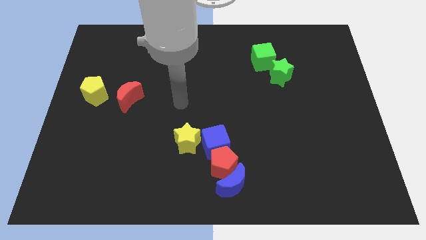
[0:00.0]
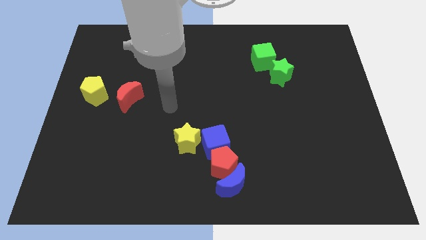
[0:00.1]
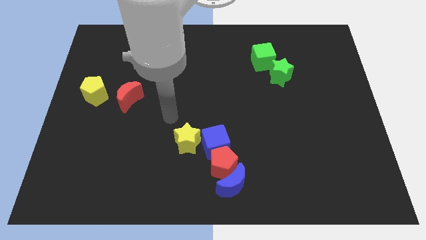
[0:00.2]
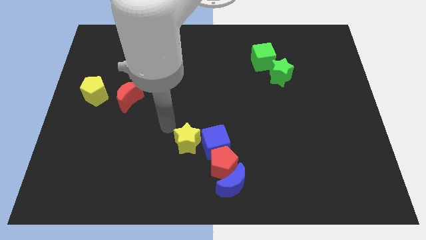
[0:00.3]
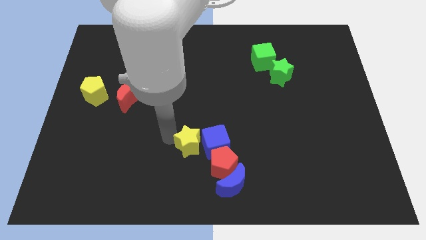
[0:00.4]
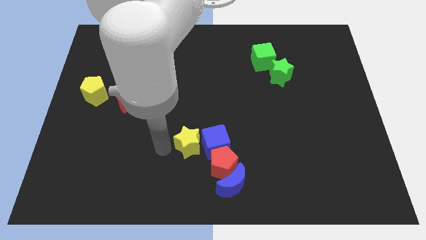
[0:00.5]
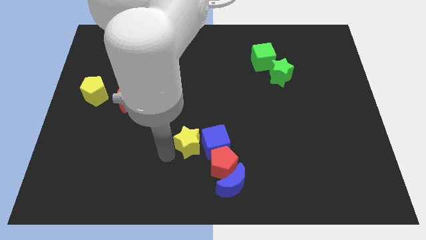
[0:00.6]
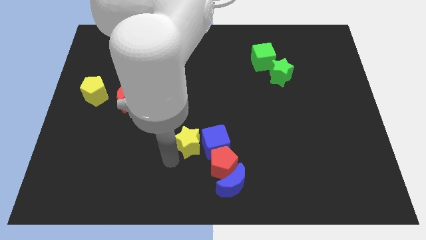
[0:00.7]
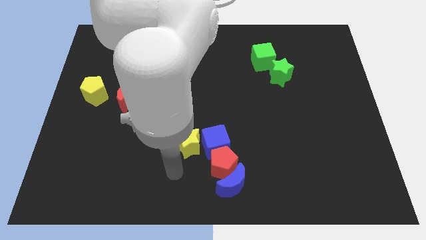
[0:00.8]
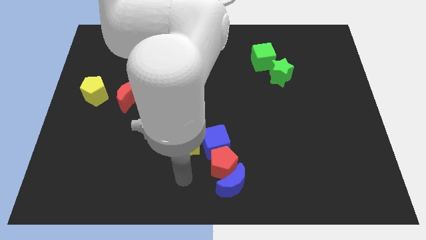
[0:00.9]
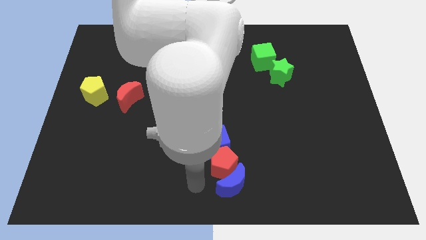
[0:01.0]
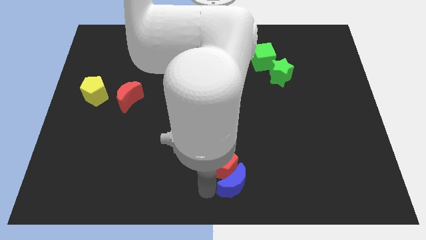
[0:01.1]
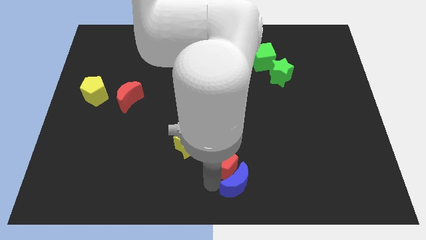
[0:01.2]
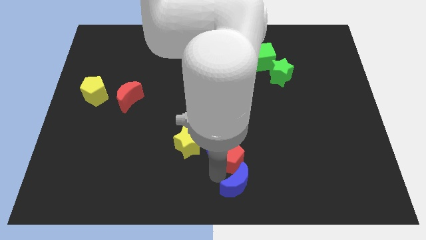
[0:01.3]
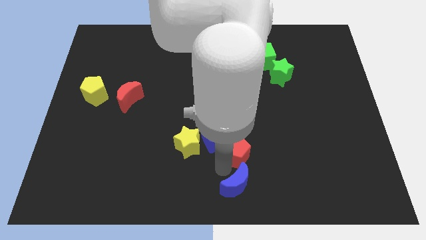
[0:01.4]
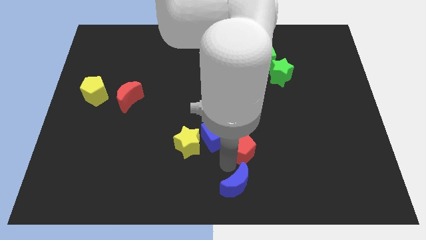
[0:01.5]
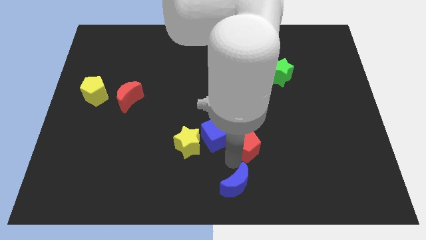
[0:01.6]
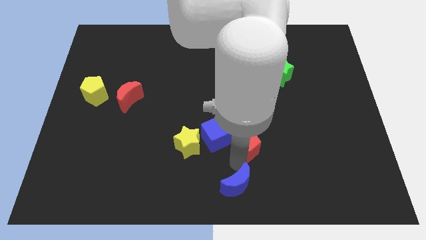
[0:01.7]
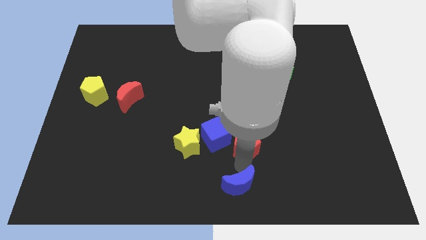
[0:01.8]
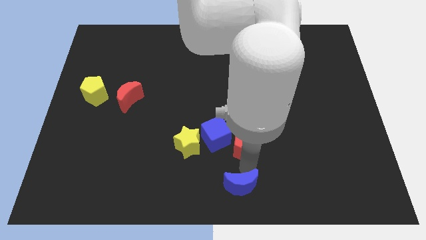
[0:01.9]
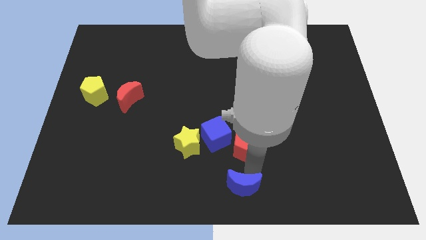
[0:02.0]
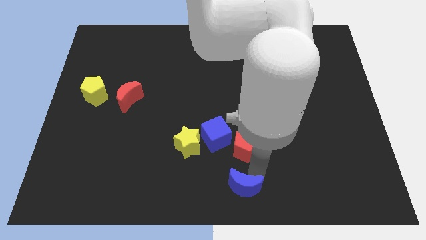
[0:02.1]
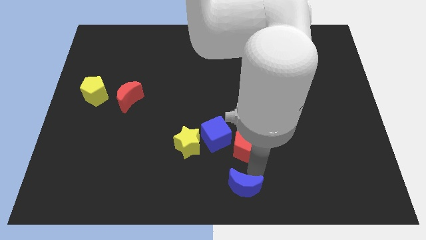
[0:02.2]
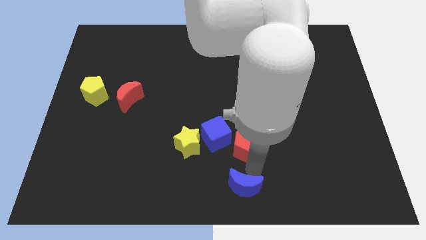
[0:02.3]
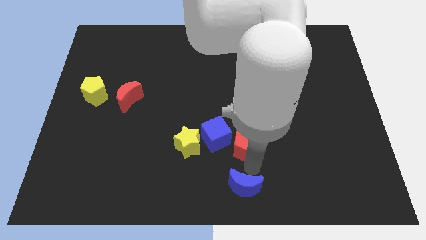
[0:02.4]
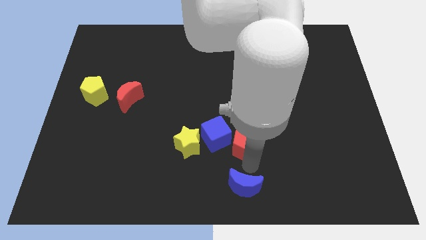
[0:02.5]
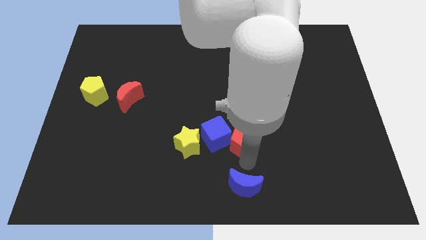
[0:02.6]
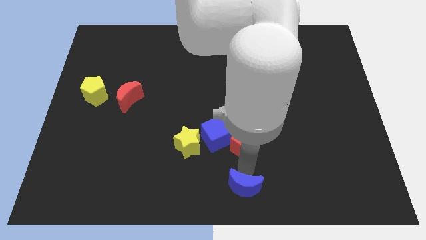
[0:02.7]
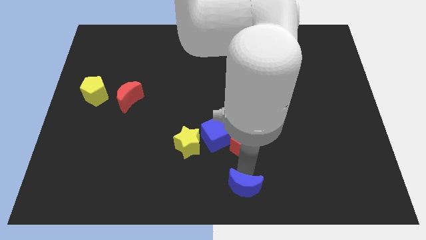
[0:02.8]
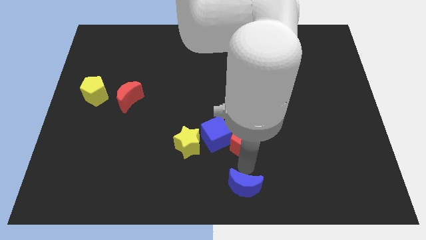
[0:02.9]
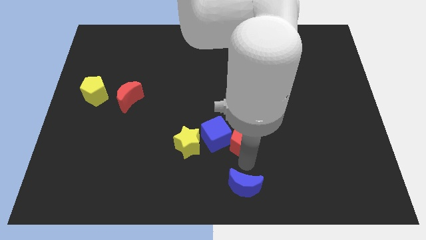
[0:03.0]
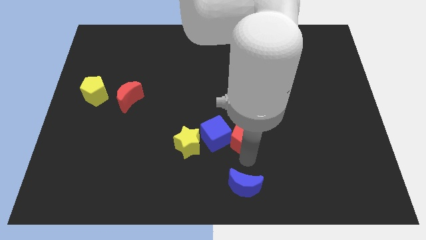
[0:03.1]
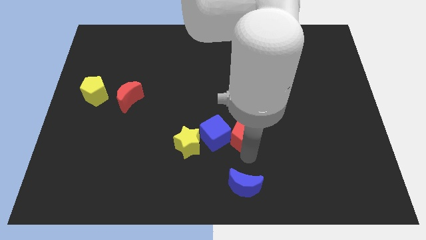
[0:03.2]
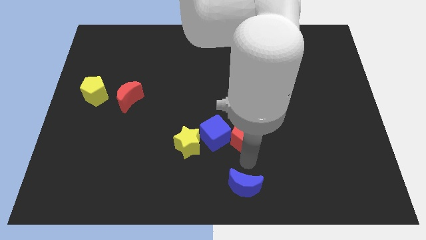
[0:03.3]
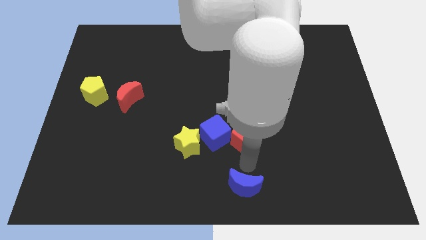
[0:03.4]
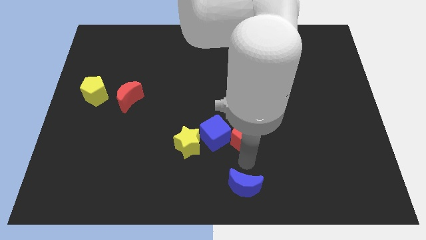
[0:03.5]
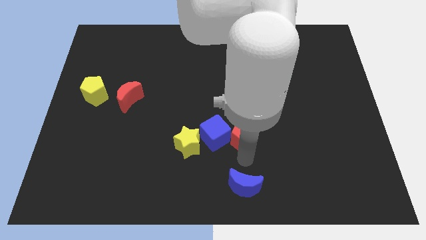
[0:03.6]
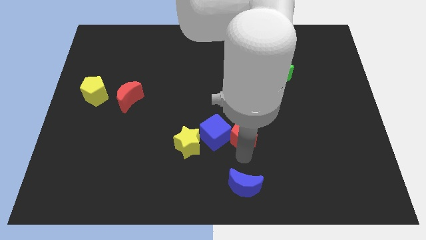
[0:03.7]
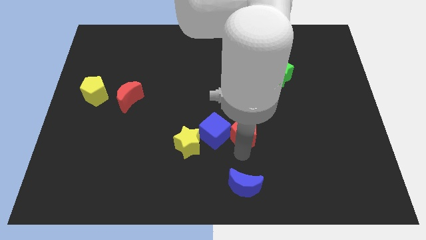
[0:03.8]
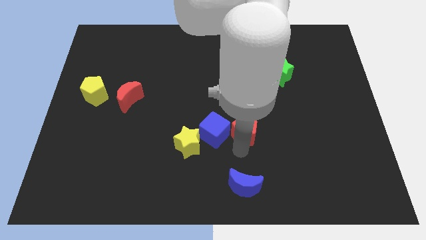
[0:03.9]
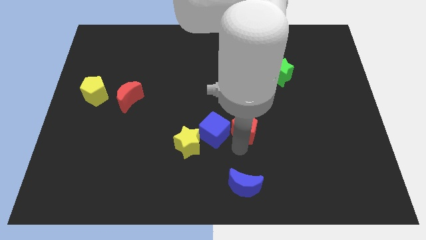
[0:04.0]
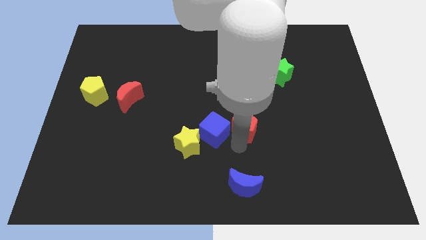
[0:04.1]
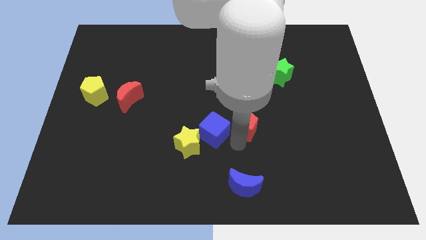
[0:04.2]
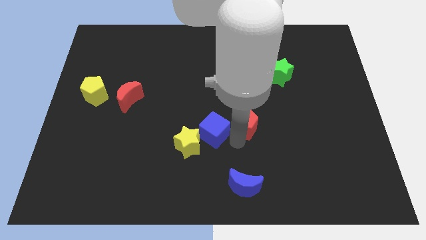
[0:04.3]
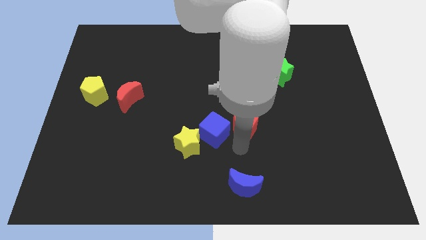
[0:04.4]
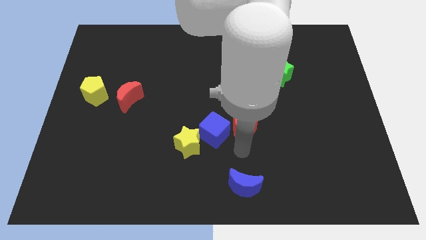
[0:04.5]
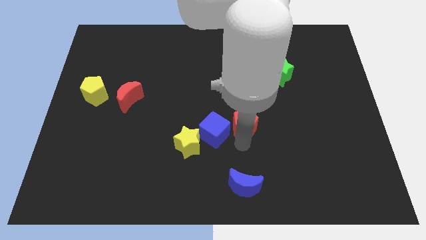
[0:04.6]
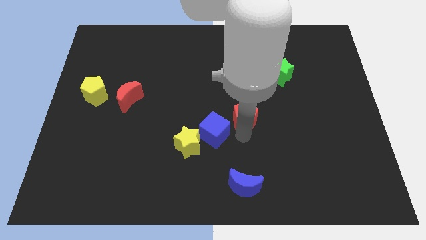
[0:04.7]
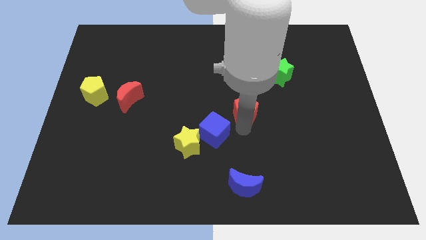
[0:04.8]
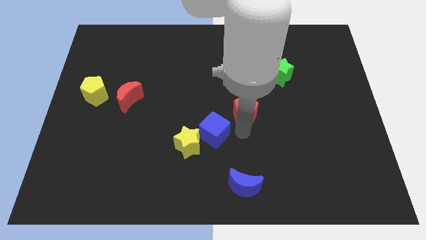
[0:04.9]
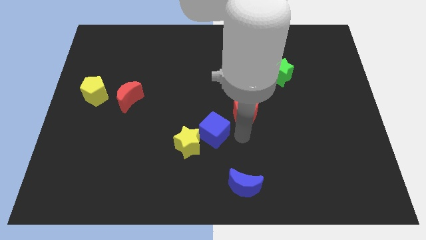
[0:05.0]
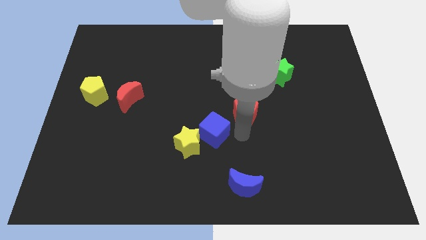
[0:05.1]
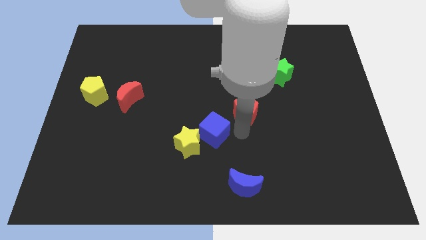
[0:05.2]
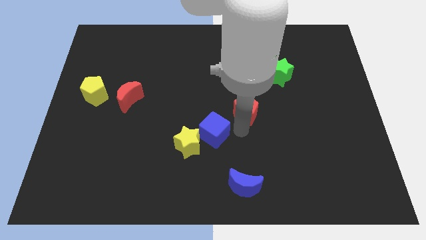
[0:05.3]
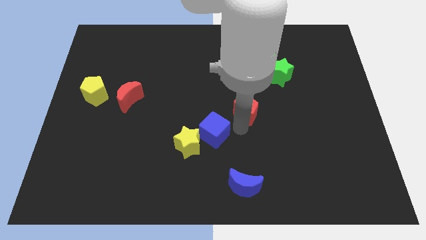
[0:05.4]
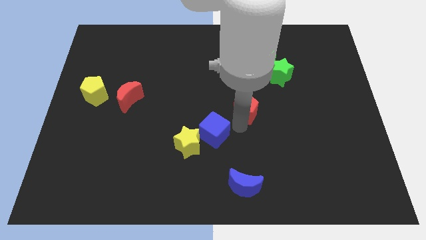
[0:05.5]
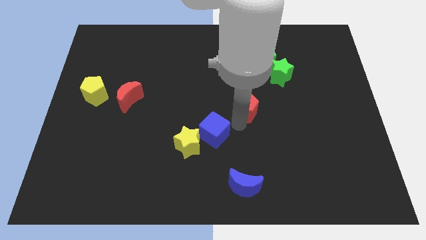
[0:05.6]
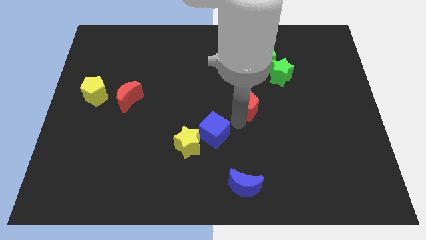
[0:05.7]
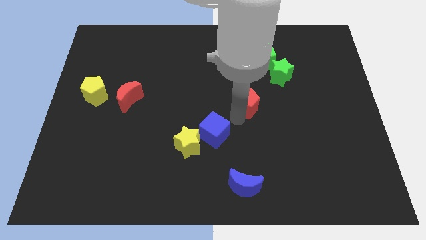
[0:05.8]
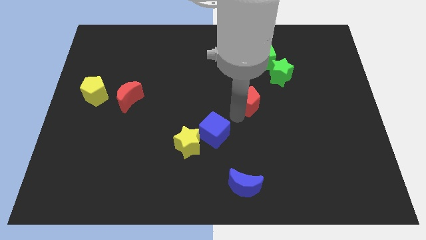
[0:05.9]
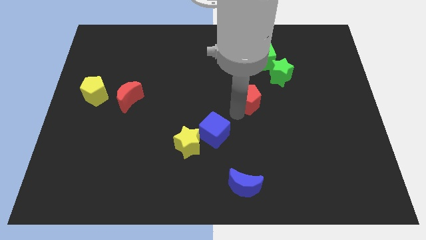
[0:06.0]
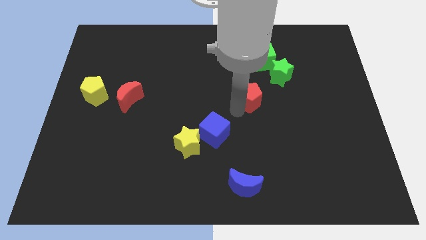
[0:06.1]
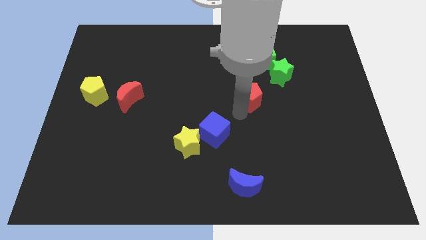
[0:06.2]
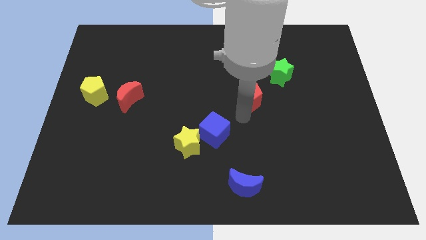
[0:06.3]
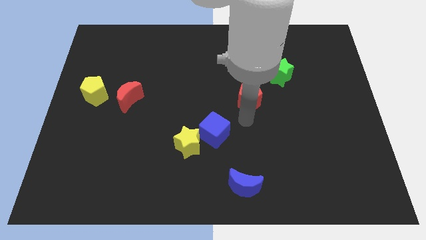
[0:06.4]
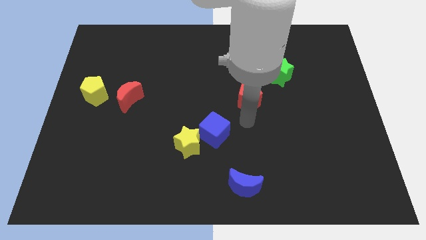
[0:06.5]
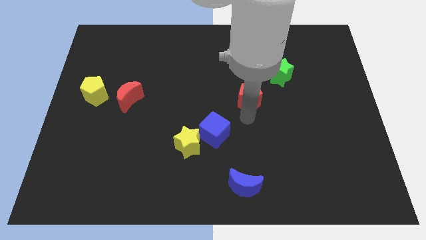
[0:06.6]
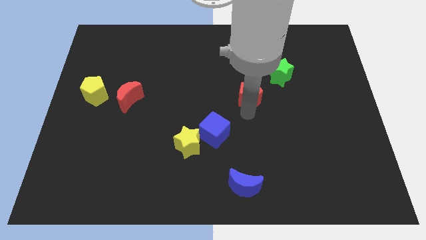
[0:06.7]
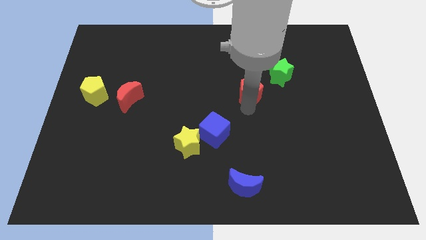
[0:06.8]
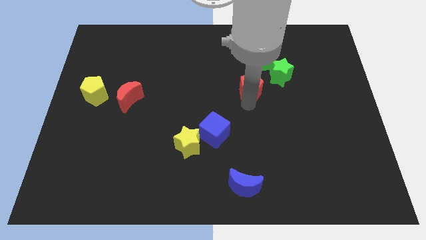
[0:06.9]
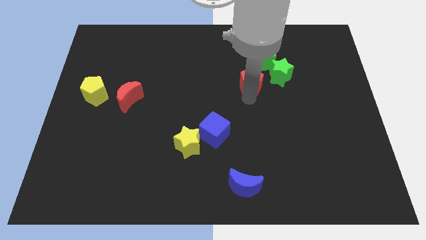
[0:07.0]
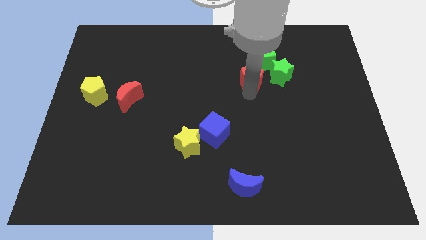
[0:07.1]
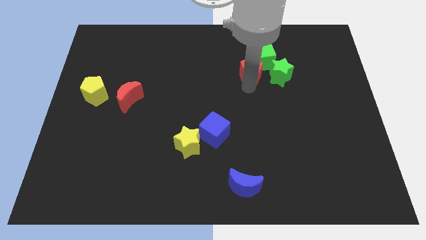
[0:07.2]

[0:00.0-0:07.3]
slide the red pentagon next to the green cube
